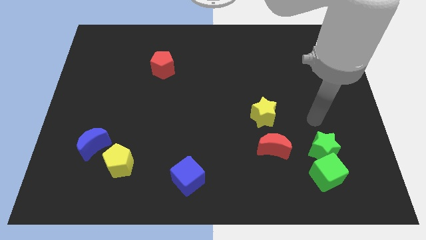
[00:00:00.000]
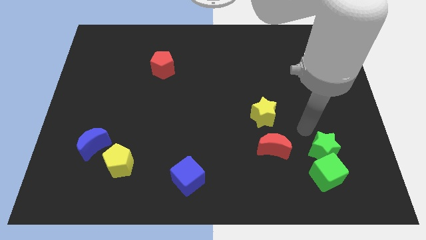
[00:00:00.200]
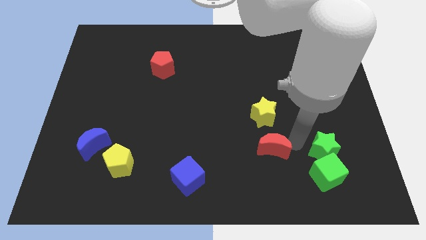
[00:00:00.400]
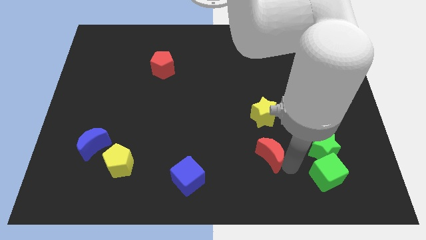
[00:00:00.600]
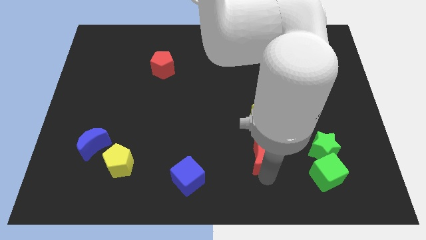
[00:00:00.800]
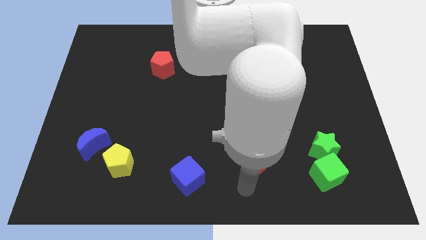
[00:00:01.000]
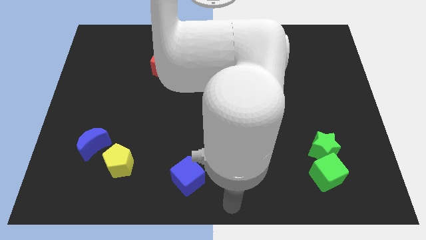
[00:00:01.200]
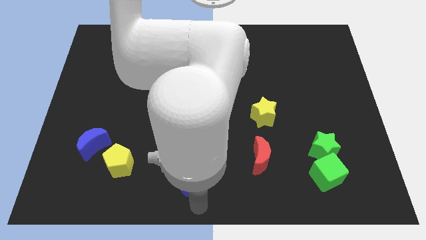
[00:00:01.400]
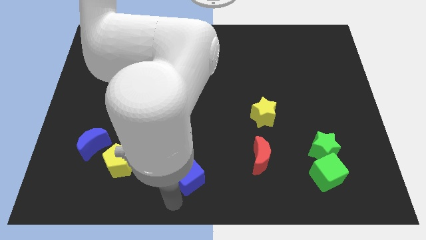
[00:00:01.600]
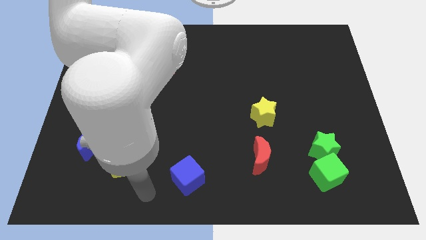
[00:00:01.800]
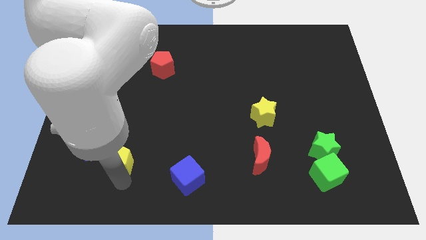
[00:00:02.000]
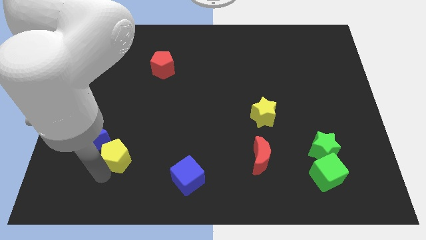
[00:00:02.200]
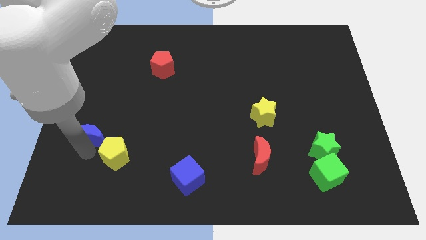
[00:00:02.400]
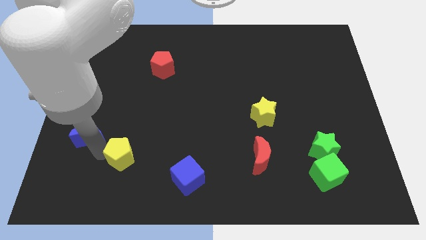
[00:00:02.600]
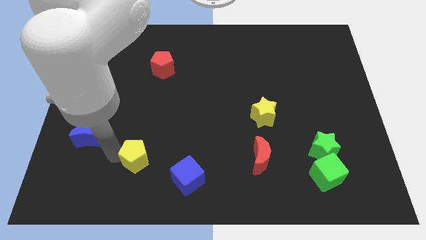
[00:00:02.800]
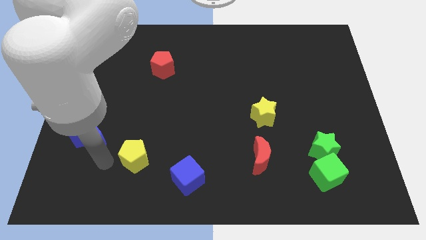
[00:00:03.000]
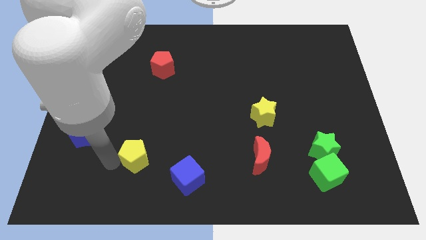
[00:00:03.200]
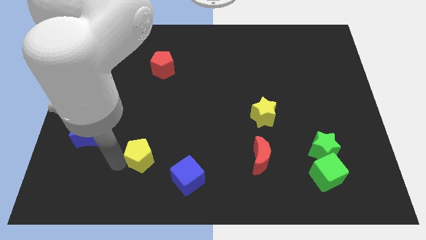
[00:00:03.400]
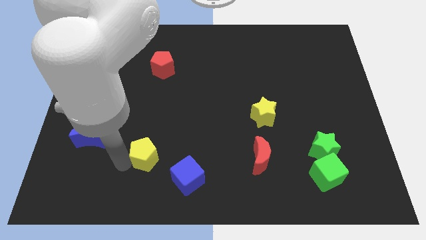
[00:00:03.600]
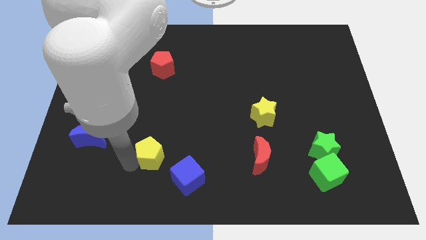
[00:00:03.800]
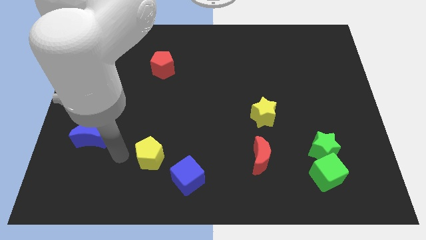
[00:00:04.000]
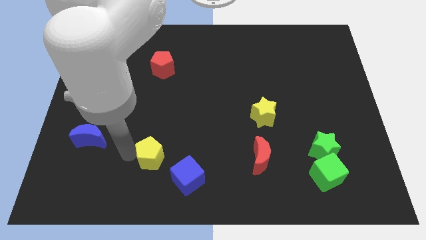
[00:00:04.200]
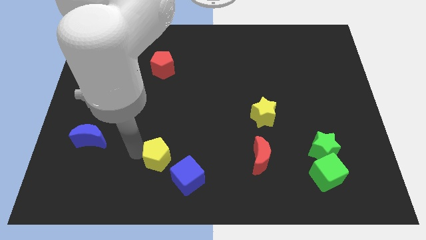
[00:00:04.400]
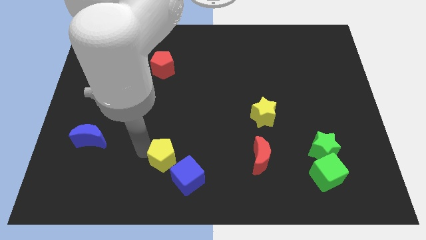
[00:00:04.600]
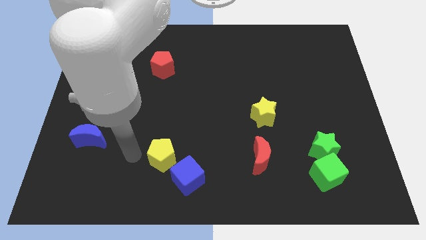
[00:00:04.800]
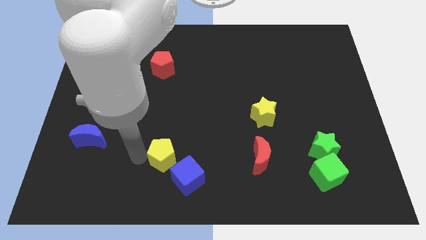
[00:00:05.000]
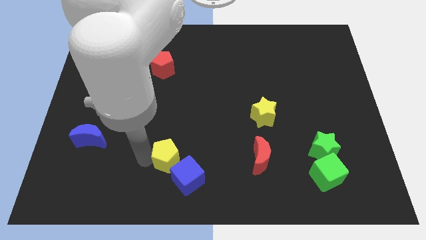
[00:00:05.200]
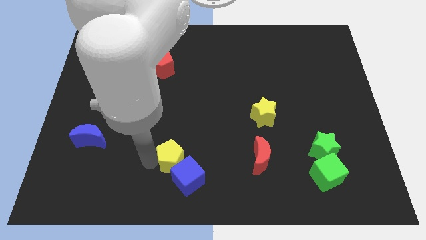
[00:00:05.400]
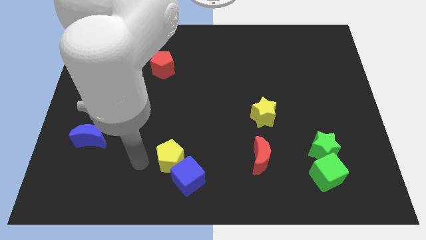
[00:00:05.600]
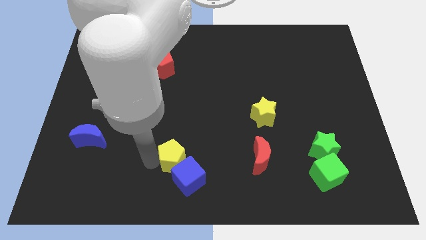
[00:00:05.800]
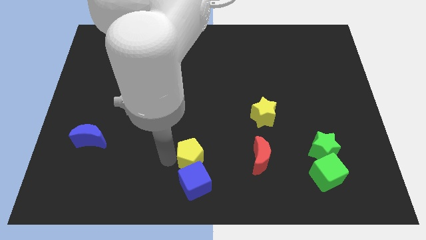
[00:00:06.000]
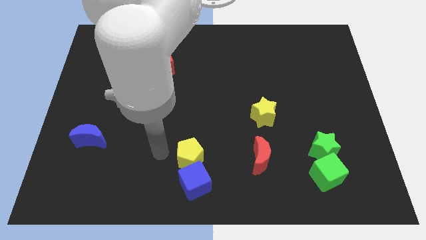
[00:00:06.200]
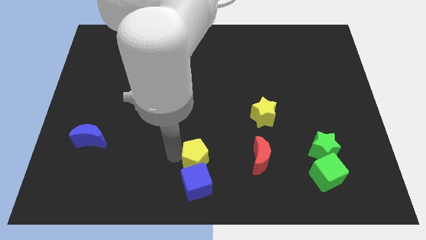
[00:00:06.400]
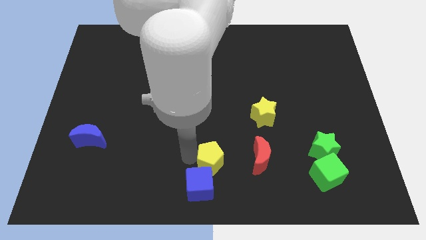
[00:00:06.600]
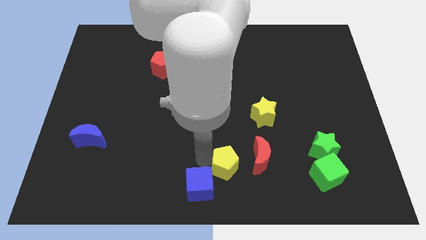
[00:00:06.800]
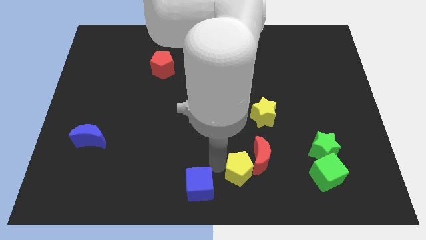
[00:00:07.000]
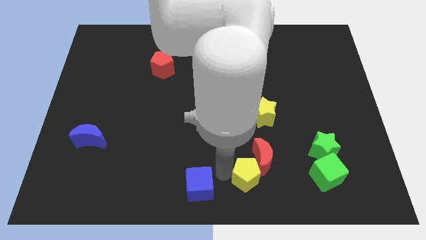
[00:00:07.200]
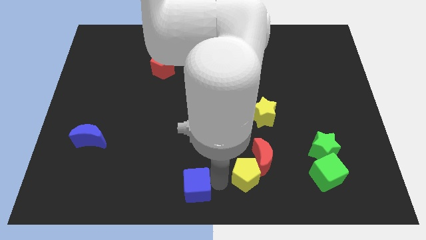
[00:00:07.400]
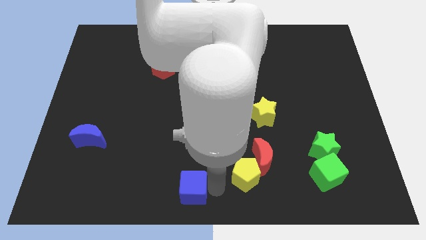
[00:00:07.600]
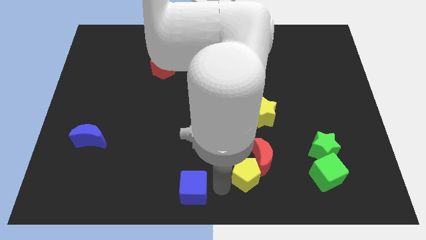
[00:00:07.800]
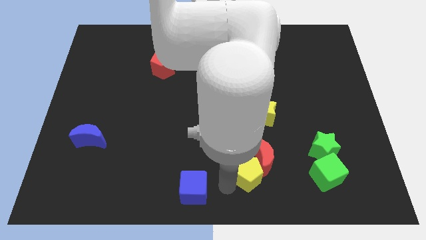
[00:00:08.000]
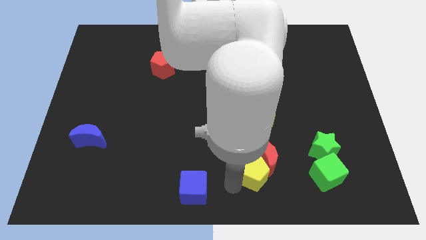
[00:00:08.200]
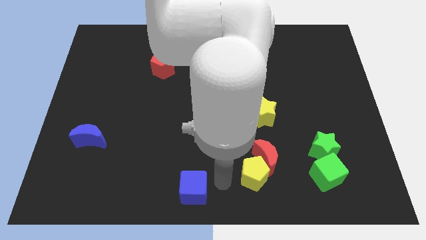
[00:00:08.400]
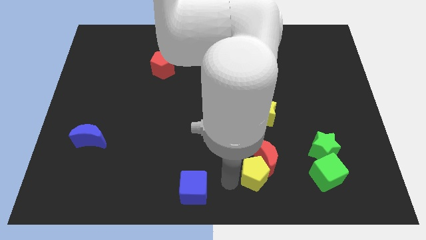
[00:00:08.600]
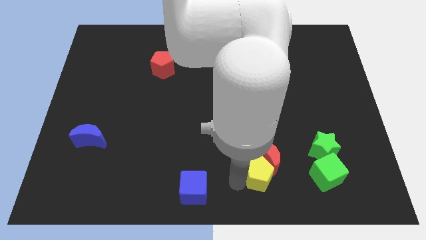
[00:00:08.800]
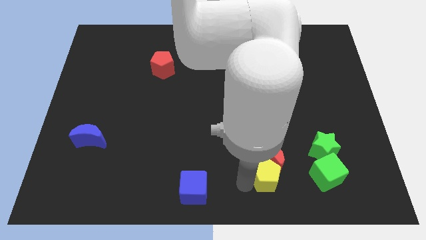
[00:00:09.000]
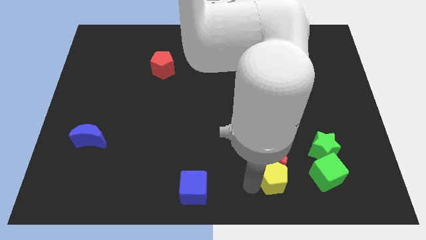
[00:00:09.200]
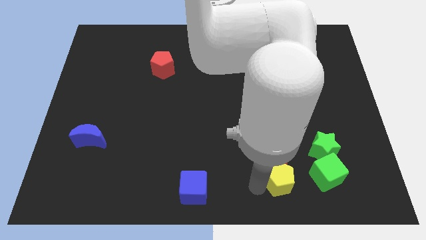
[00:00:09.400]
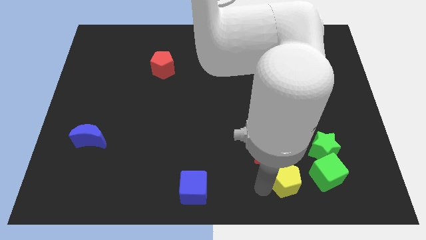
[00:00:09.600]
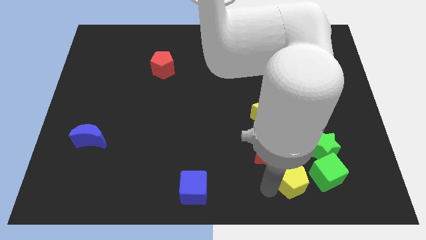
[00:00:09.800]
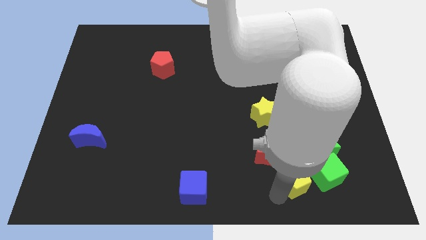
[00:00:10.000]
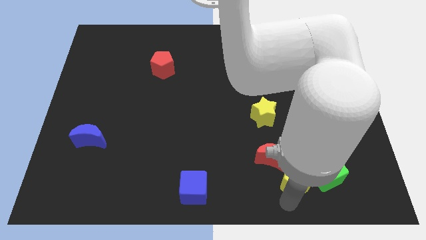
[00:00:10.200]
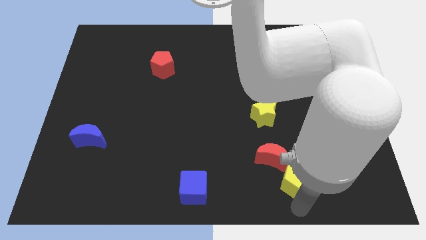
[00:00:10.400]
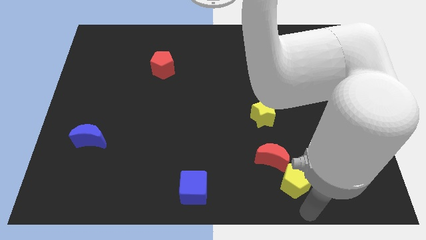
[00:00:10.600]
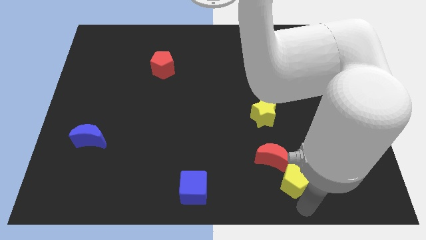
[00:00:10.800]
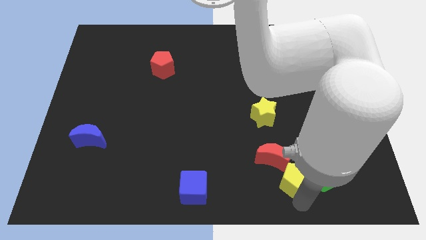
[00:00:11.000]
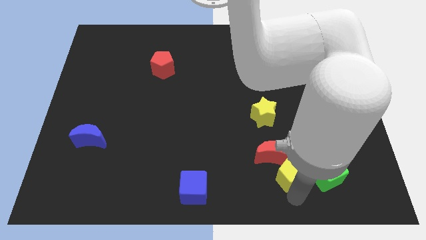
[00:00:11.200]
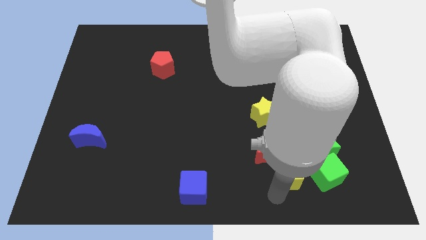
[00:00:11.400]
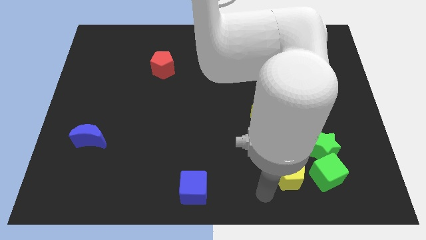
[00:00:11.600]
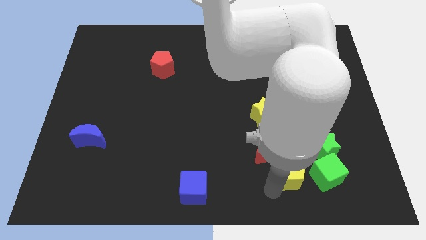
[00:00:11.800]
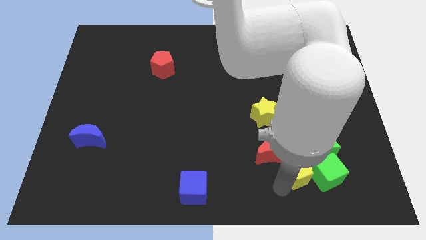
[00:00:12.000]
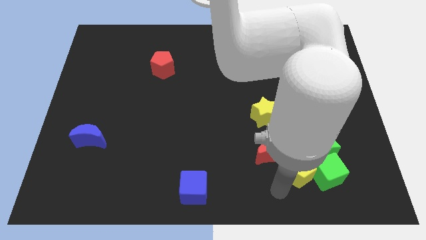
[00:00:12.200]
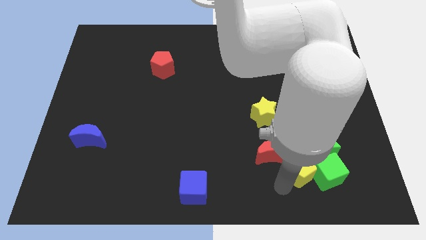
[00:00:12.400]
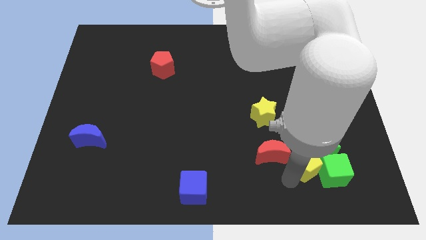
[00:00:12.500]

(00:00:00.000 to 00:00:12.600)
move the yellow pentagon next to the green star

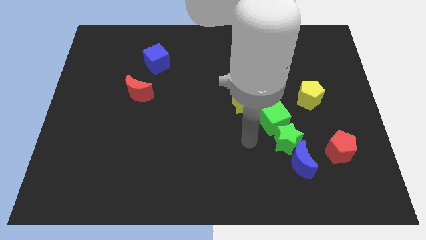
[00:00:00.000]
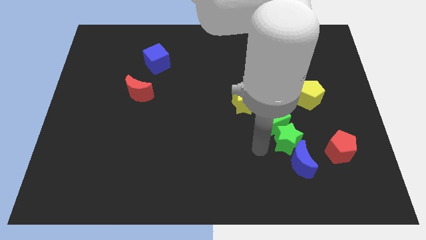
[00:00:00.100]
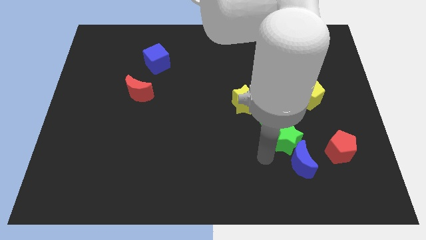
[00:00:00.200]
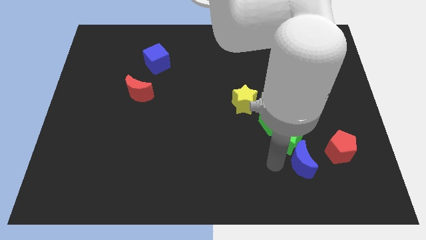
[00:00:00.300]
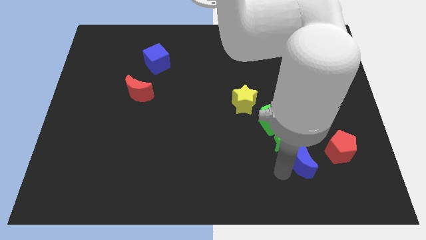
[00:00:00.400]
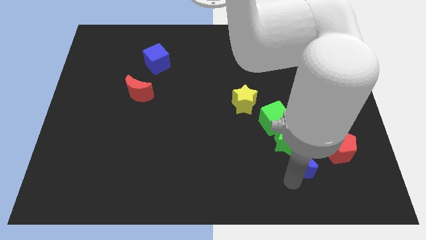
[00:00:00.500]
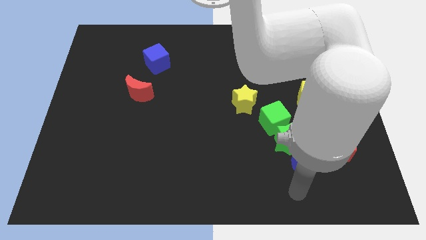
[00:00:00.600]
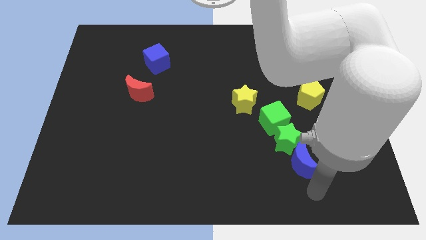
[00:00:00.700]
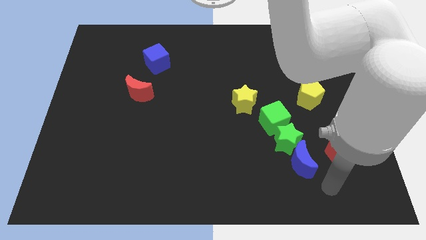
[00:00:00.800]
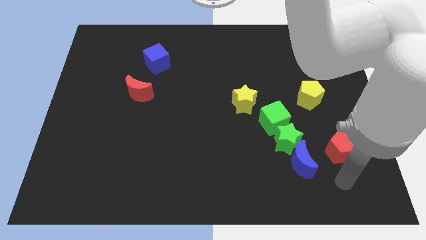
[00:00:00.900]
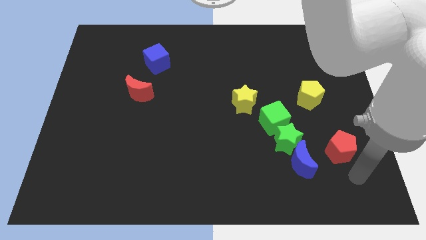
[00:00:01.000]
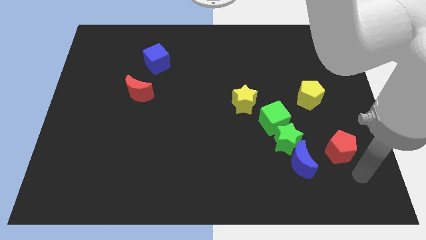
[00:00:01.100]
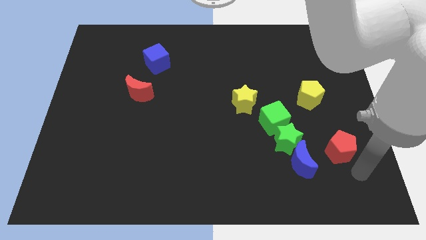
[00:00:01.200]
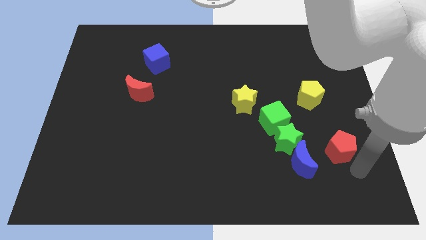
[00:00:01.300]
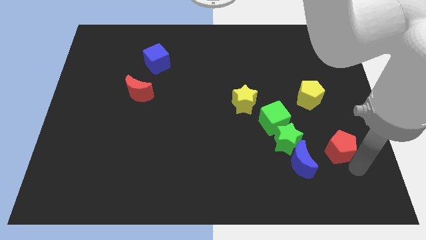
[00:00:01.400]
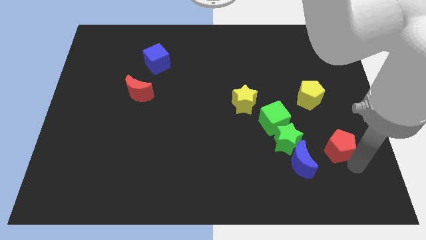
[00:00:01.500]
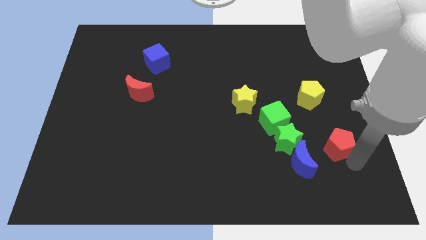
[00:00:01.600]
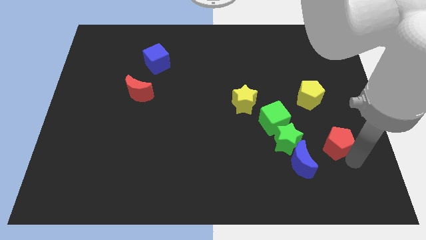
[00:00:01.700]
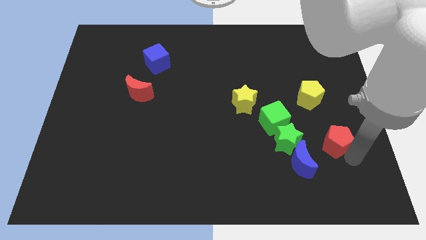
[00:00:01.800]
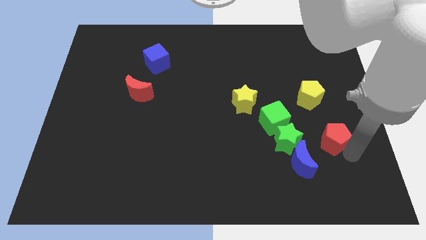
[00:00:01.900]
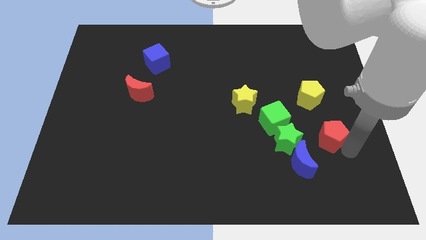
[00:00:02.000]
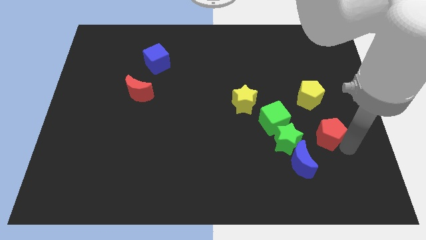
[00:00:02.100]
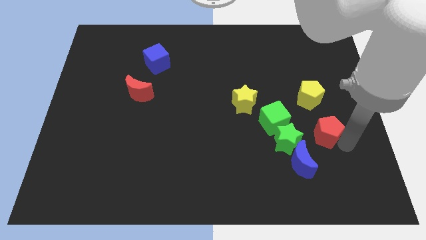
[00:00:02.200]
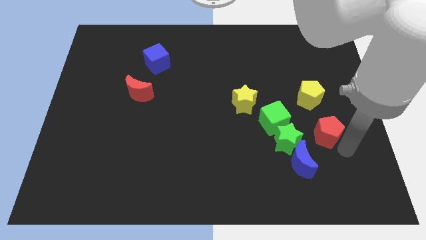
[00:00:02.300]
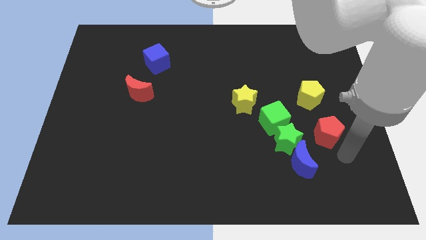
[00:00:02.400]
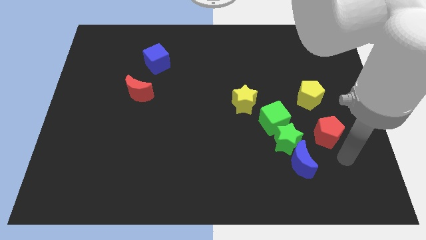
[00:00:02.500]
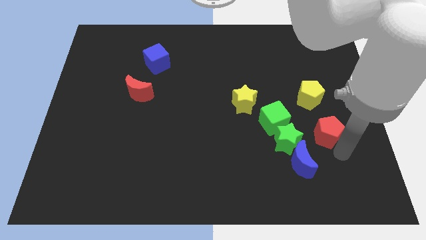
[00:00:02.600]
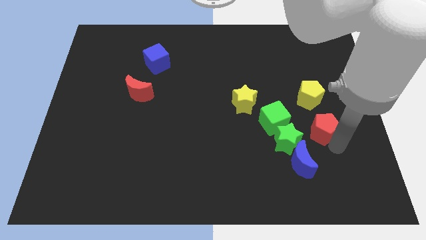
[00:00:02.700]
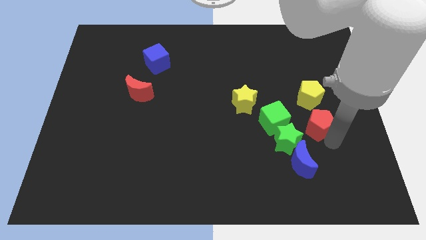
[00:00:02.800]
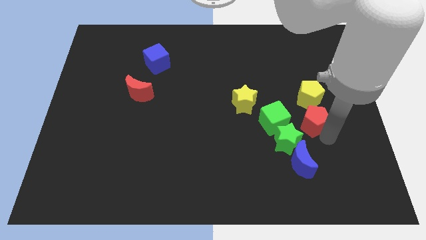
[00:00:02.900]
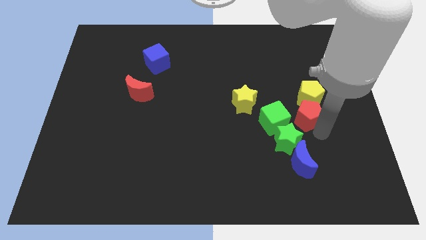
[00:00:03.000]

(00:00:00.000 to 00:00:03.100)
push the red pentagon to the yellow pentagon
